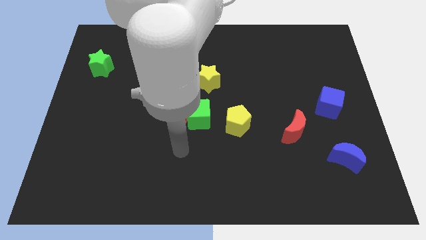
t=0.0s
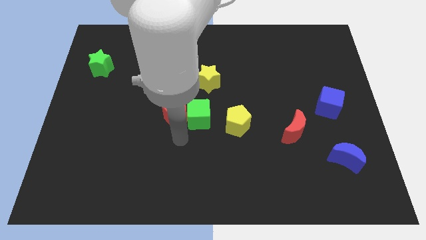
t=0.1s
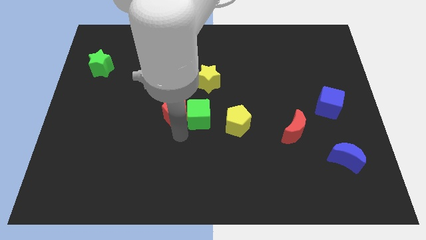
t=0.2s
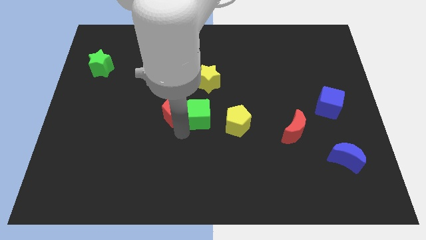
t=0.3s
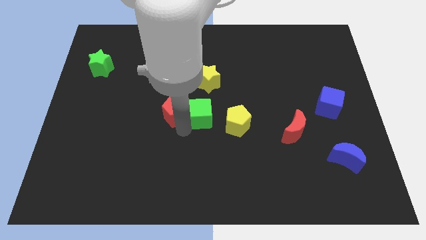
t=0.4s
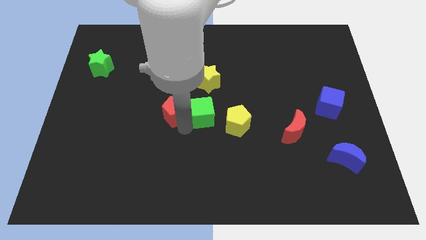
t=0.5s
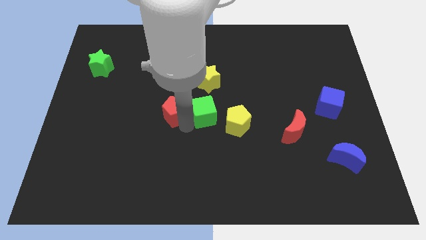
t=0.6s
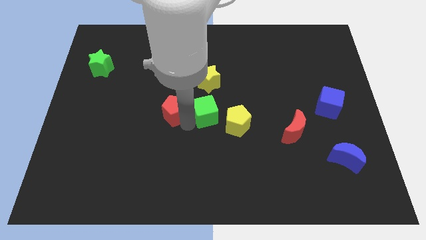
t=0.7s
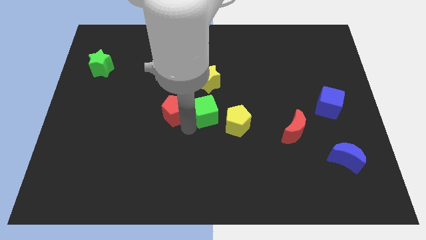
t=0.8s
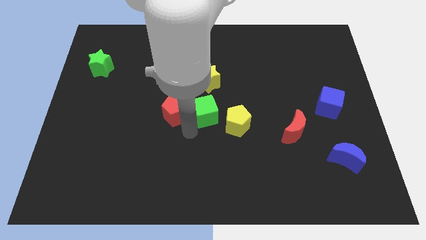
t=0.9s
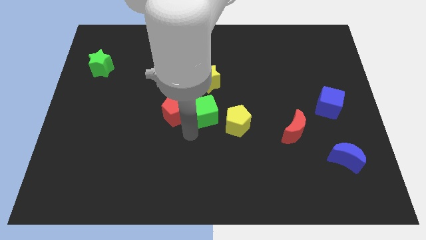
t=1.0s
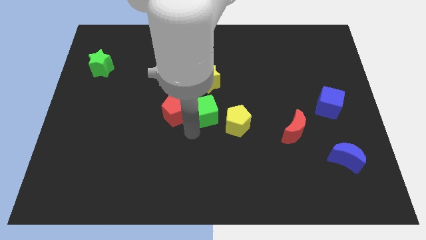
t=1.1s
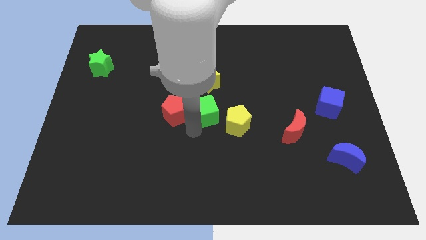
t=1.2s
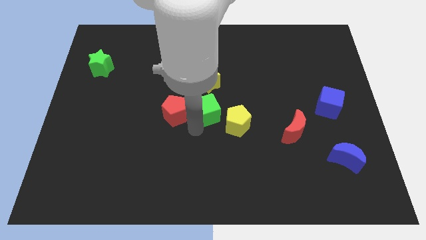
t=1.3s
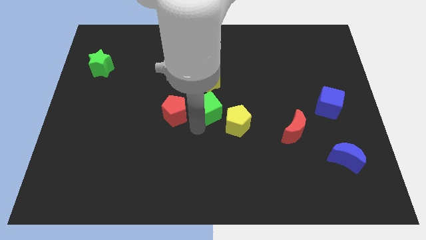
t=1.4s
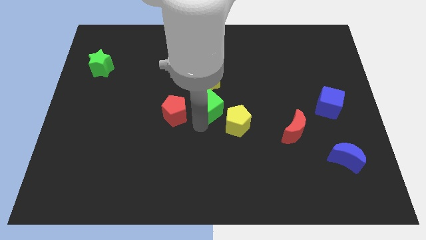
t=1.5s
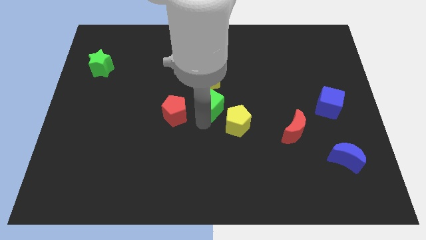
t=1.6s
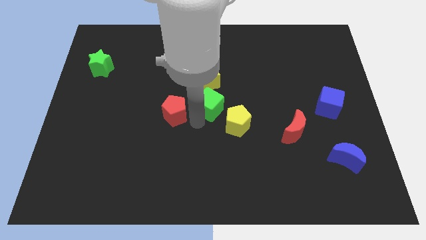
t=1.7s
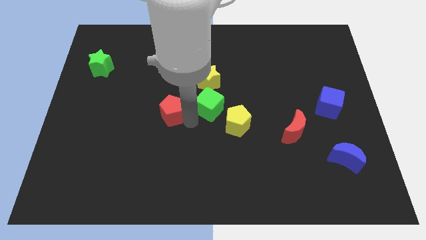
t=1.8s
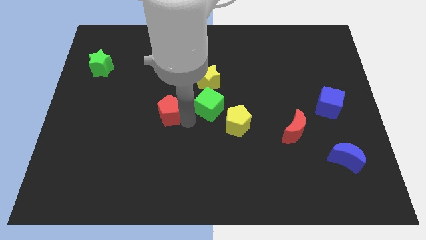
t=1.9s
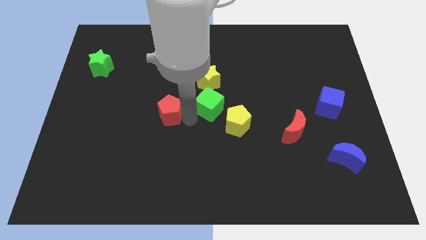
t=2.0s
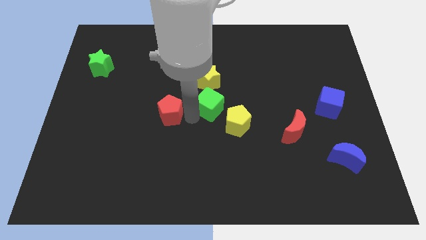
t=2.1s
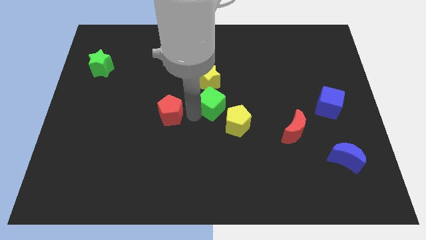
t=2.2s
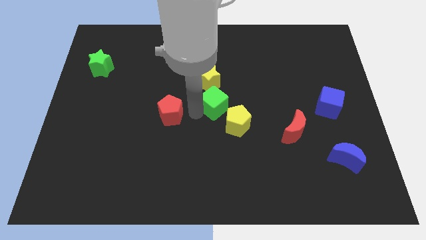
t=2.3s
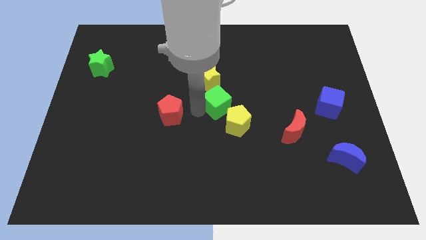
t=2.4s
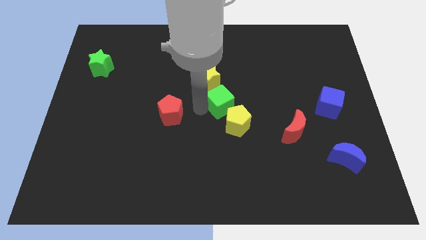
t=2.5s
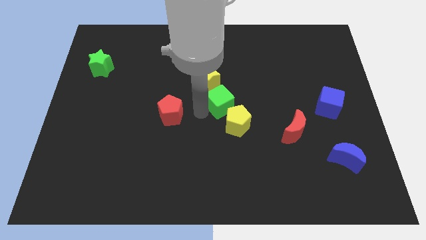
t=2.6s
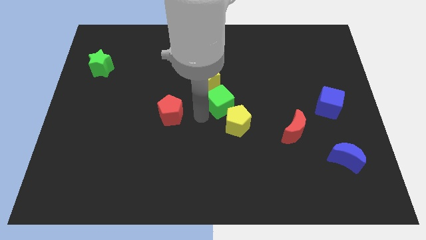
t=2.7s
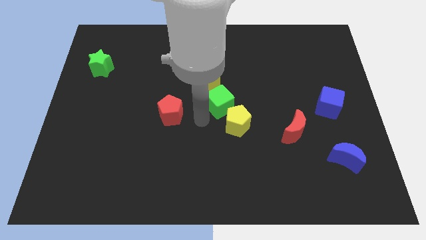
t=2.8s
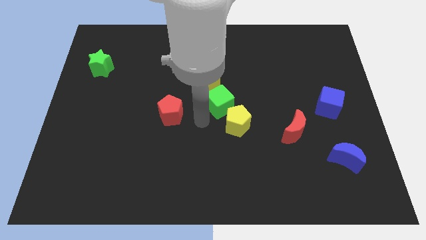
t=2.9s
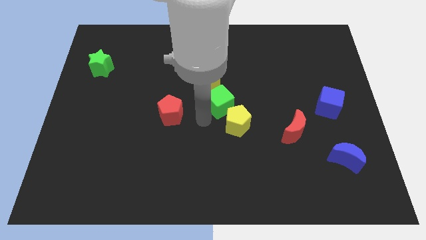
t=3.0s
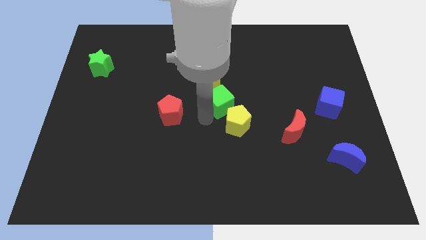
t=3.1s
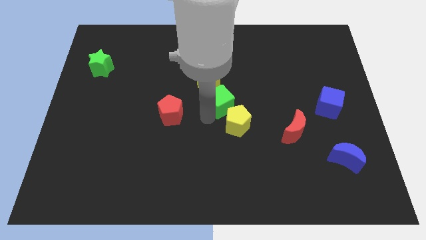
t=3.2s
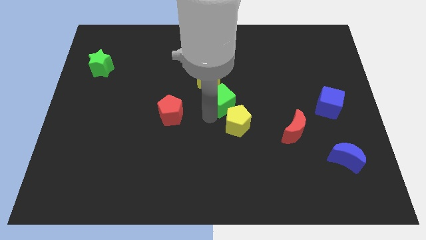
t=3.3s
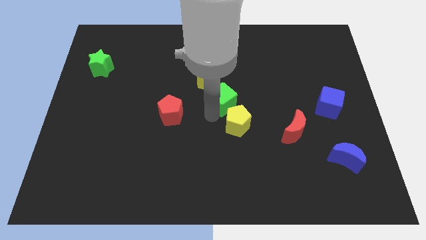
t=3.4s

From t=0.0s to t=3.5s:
push the green cube diagonally upwards and right a bit

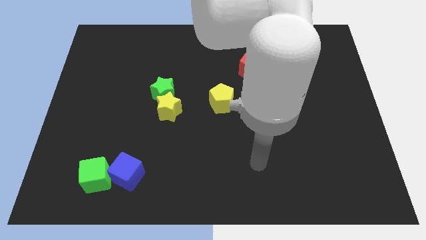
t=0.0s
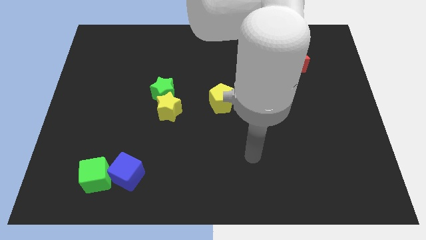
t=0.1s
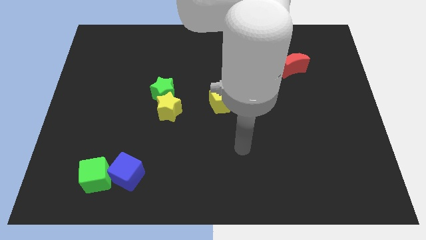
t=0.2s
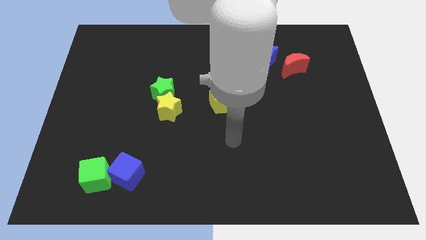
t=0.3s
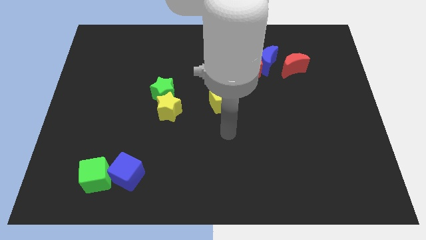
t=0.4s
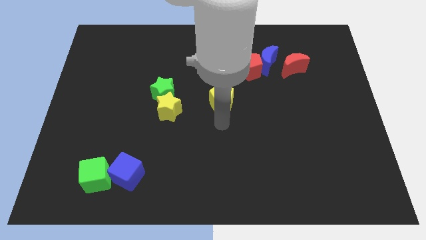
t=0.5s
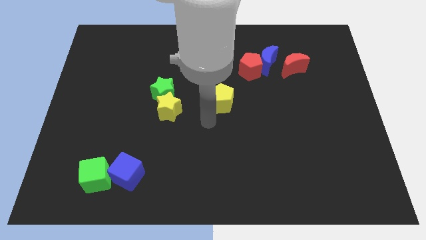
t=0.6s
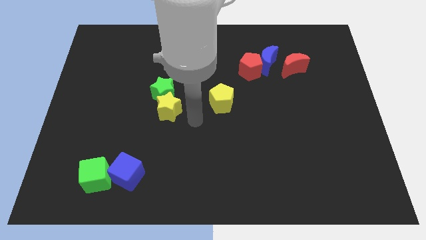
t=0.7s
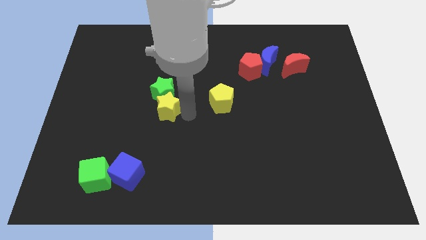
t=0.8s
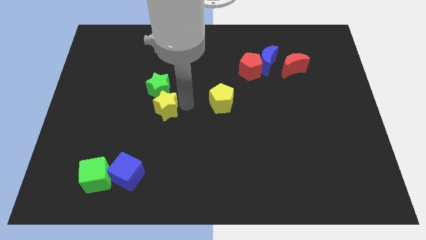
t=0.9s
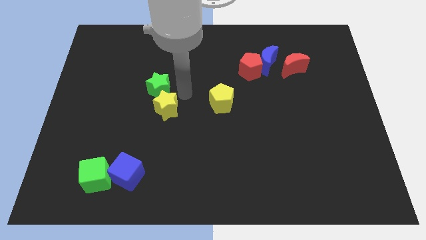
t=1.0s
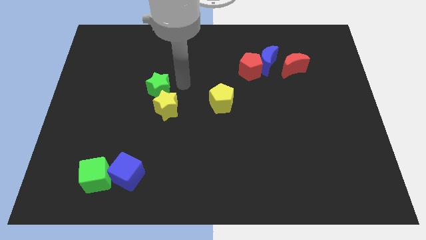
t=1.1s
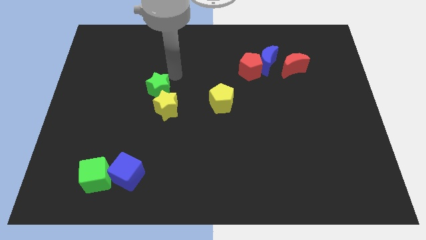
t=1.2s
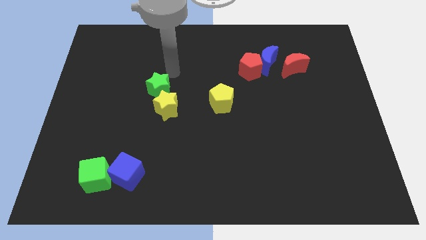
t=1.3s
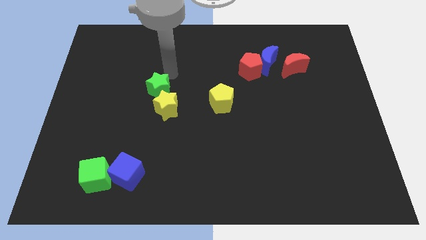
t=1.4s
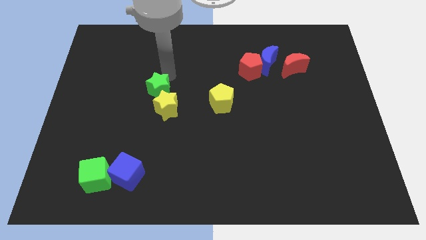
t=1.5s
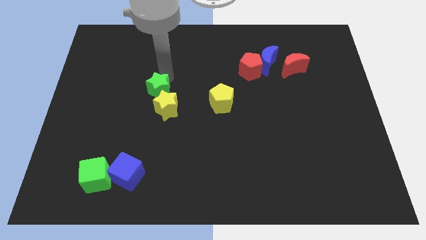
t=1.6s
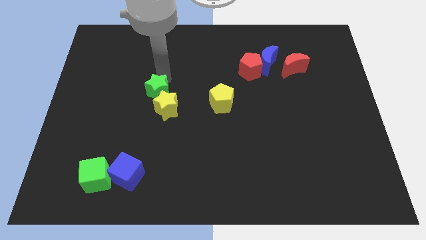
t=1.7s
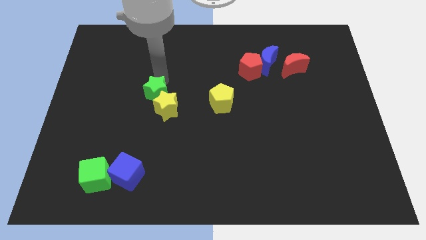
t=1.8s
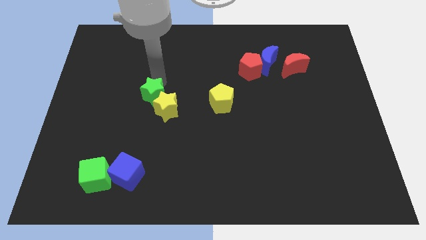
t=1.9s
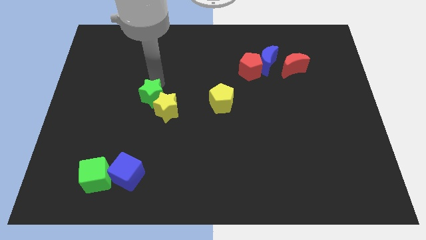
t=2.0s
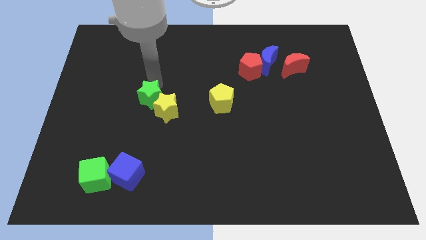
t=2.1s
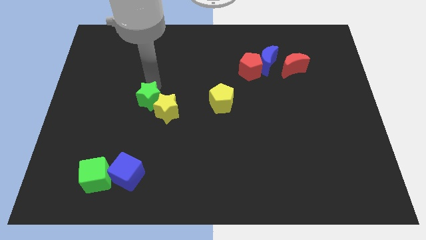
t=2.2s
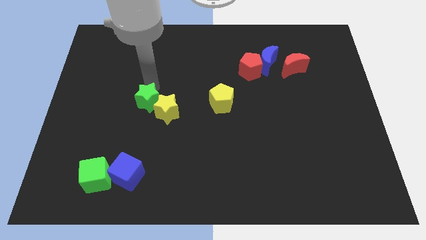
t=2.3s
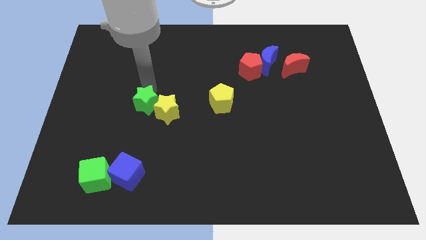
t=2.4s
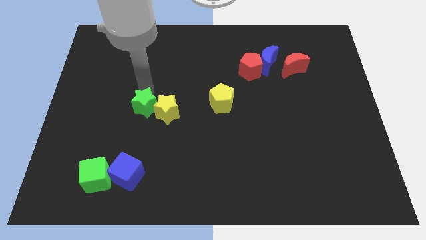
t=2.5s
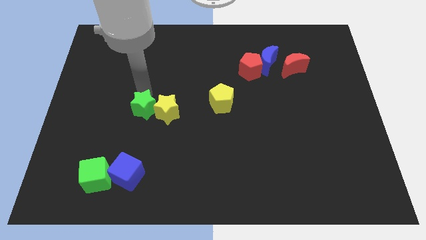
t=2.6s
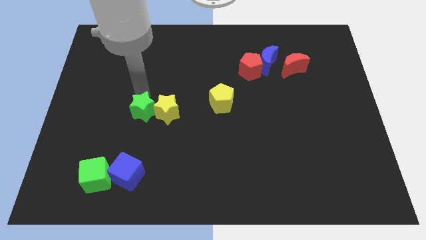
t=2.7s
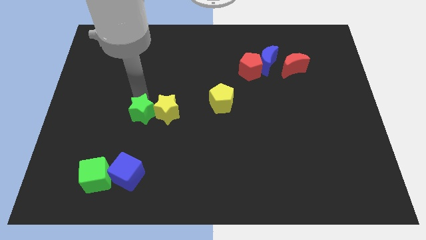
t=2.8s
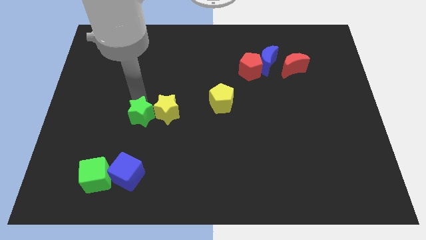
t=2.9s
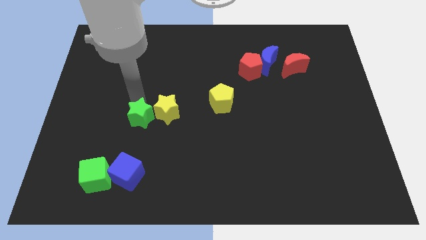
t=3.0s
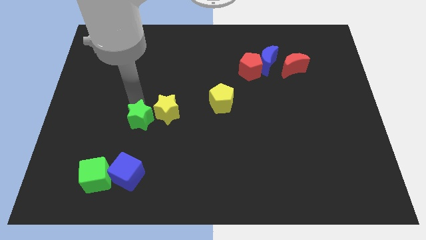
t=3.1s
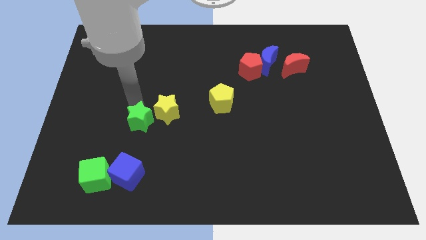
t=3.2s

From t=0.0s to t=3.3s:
slide the green star downwards a little bit
